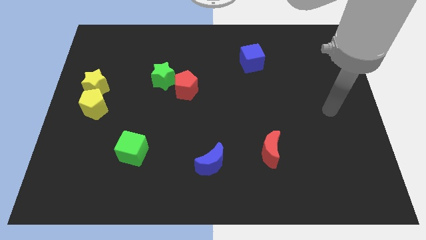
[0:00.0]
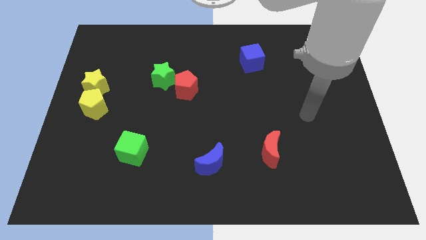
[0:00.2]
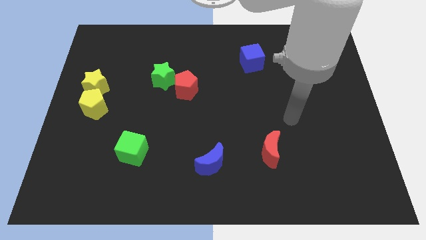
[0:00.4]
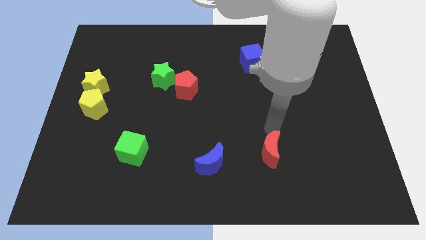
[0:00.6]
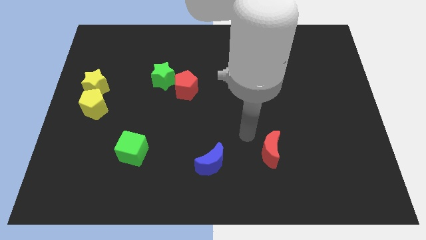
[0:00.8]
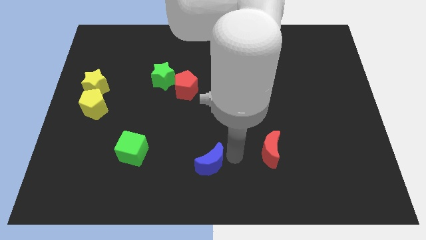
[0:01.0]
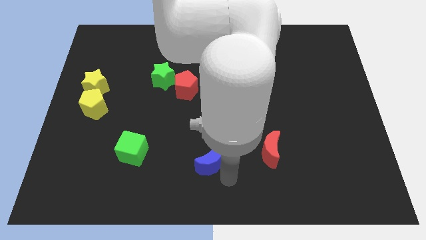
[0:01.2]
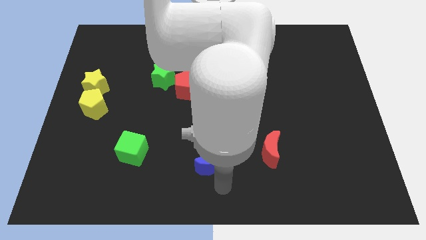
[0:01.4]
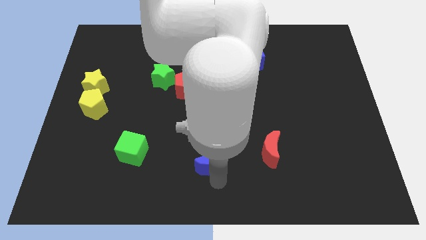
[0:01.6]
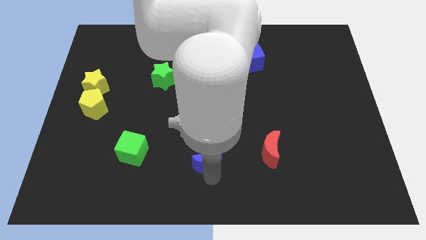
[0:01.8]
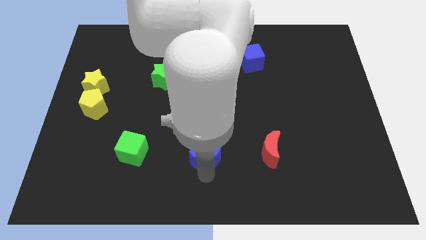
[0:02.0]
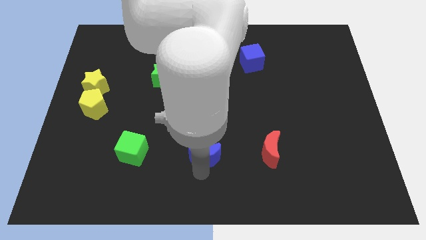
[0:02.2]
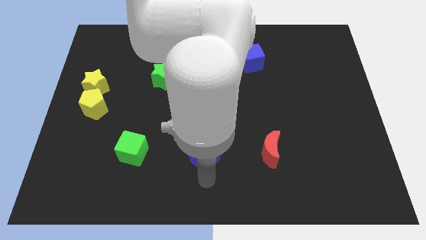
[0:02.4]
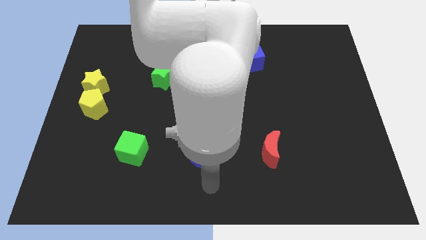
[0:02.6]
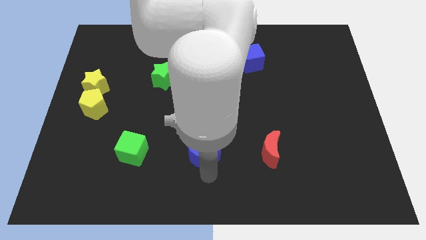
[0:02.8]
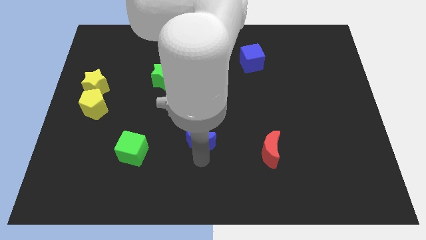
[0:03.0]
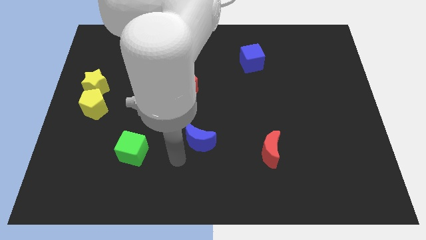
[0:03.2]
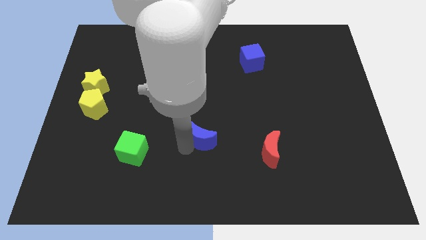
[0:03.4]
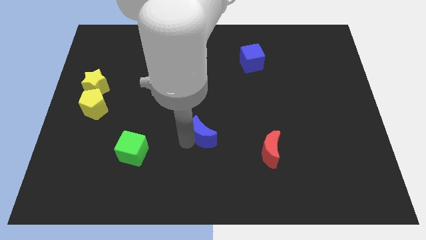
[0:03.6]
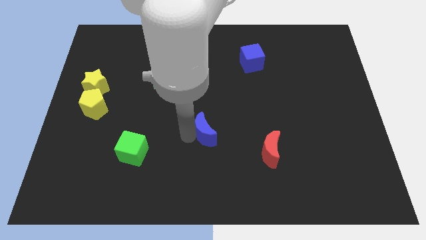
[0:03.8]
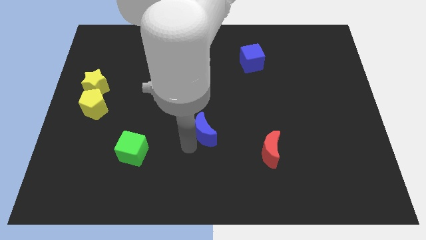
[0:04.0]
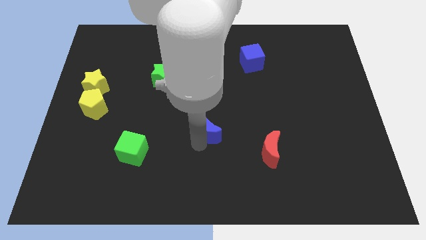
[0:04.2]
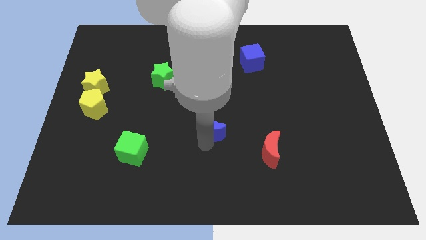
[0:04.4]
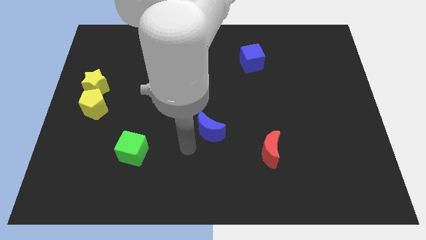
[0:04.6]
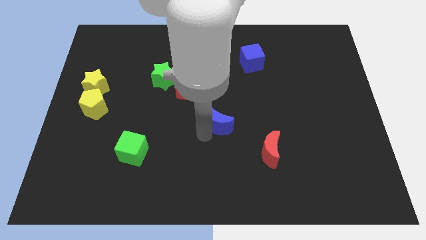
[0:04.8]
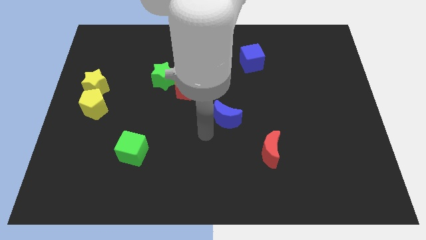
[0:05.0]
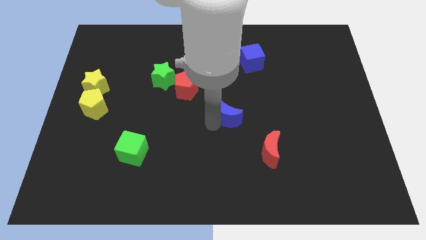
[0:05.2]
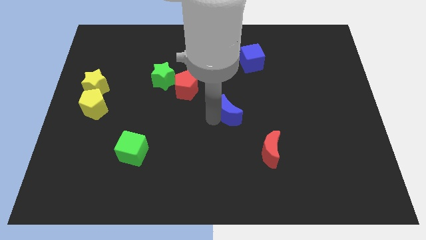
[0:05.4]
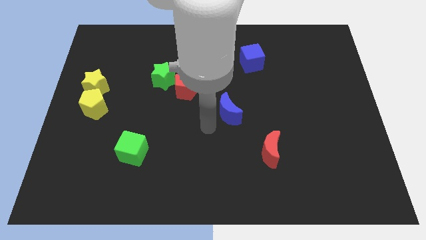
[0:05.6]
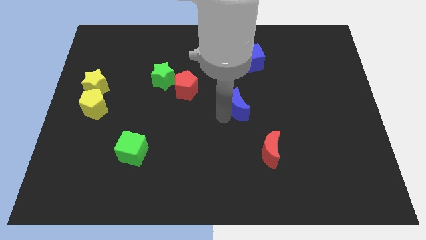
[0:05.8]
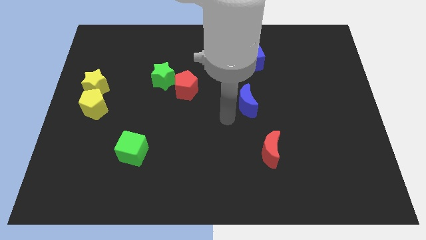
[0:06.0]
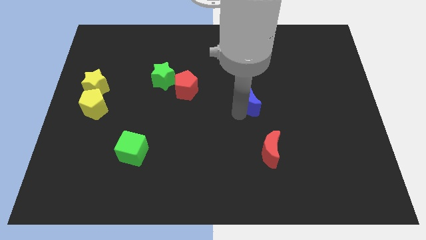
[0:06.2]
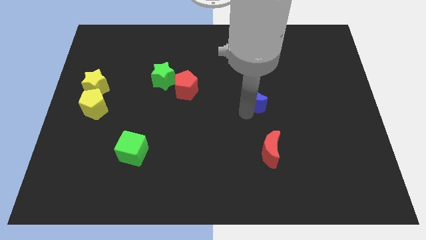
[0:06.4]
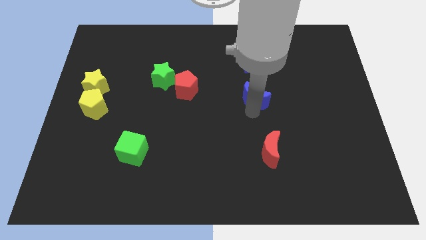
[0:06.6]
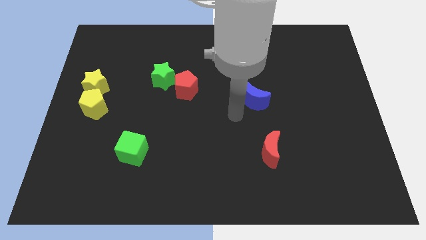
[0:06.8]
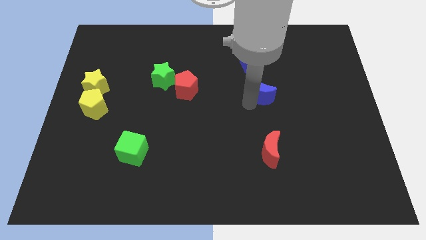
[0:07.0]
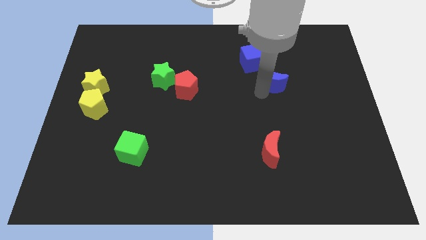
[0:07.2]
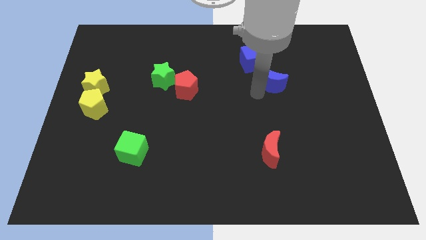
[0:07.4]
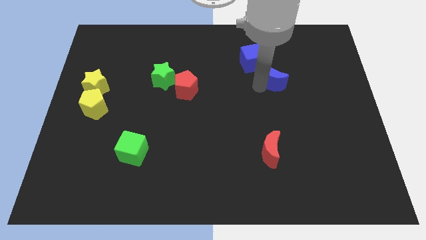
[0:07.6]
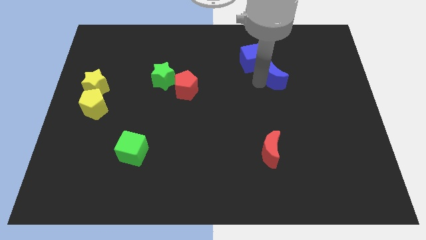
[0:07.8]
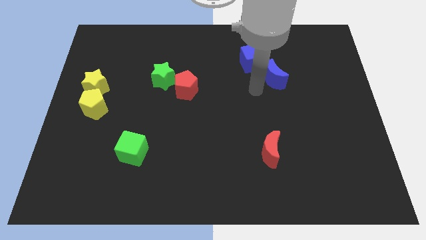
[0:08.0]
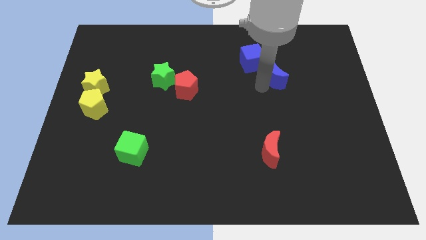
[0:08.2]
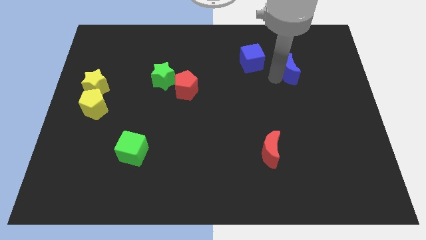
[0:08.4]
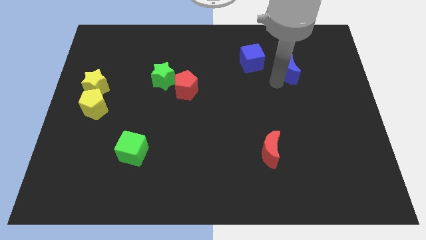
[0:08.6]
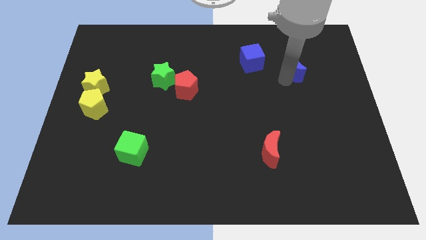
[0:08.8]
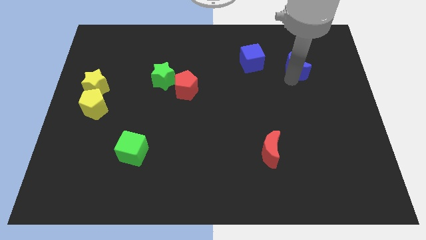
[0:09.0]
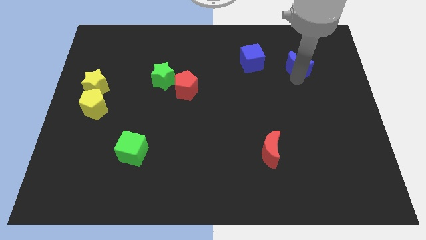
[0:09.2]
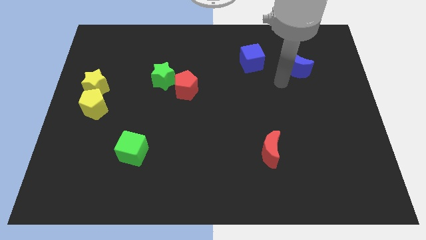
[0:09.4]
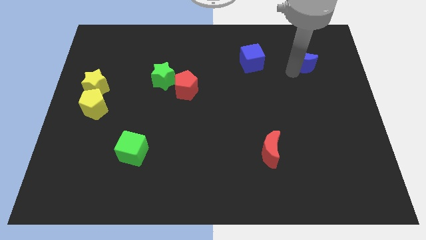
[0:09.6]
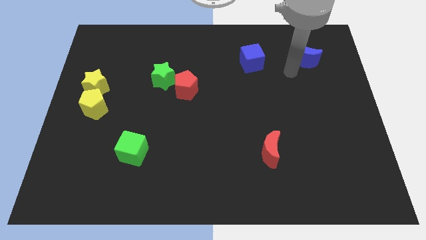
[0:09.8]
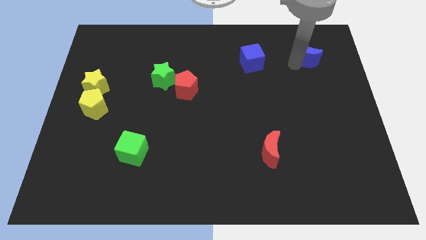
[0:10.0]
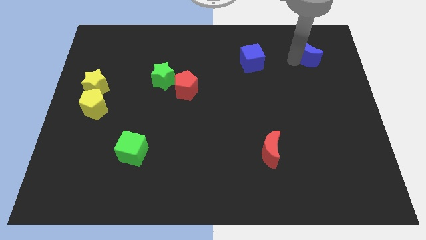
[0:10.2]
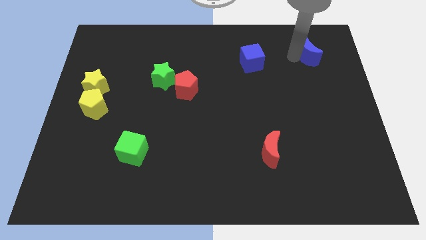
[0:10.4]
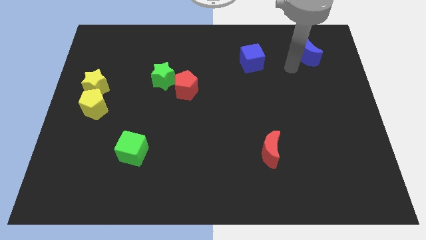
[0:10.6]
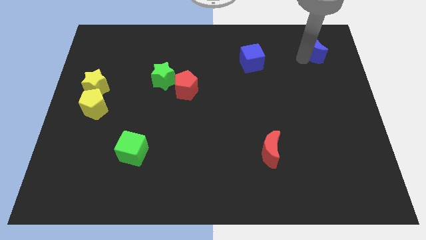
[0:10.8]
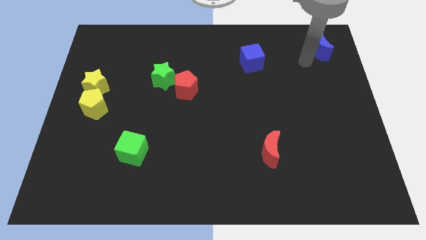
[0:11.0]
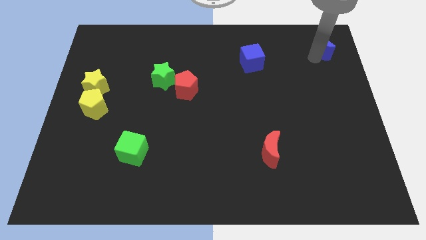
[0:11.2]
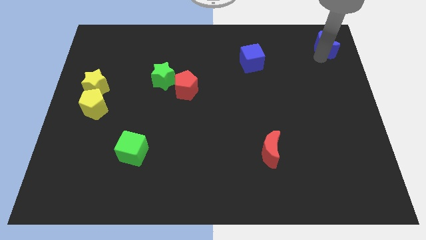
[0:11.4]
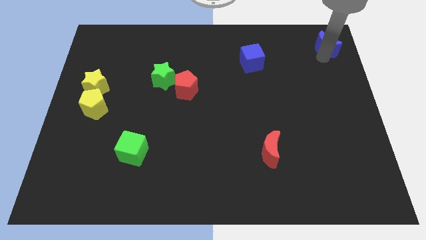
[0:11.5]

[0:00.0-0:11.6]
put the blue moon to the top right
